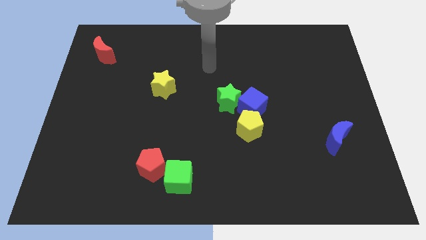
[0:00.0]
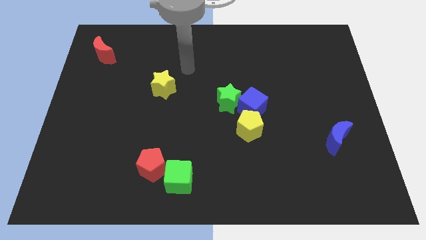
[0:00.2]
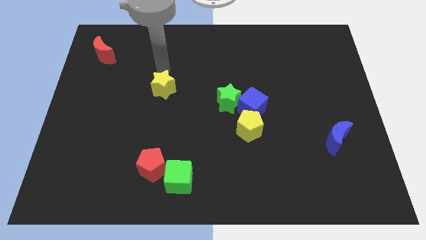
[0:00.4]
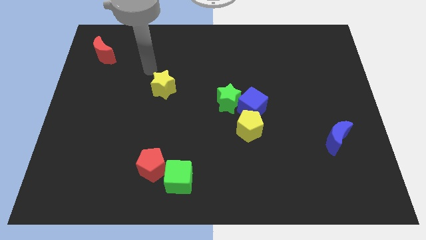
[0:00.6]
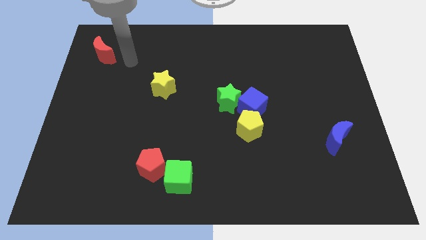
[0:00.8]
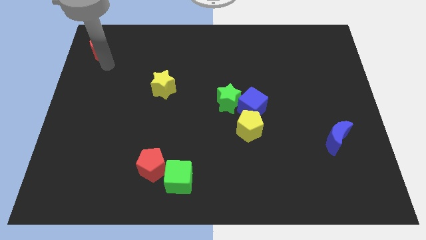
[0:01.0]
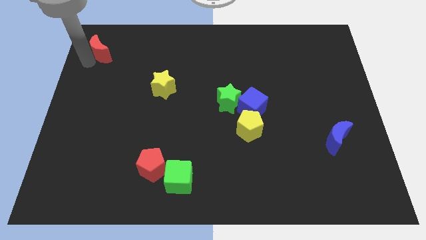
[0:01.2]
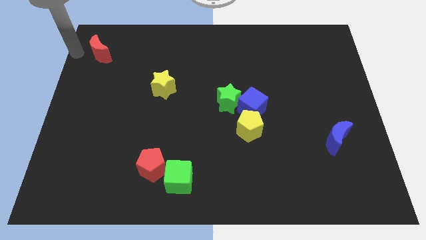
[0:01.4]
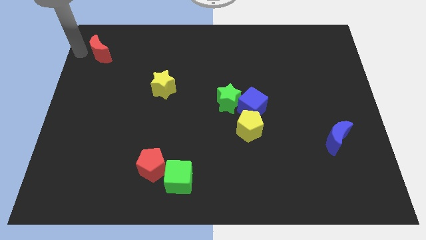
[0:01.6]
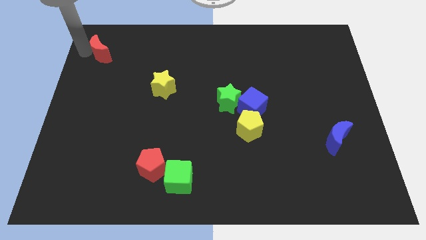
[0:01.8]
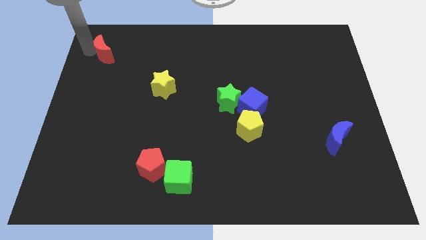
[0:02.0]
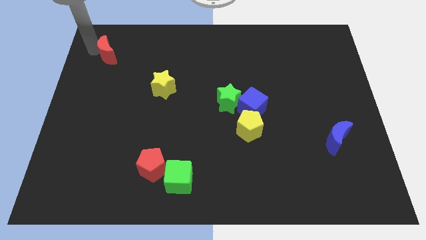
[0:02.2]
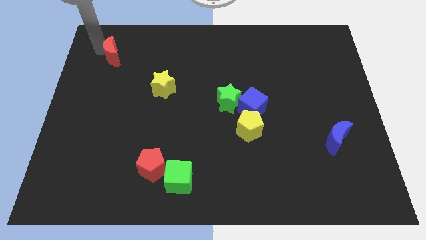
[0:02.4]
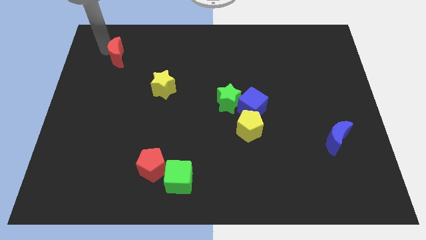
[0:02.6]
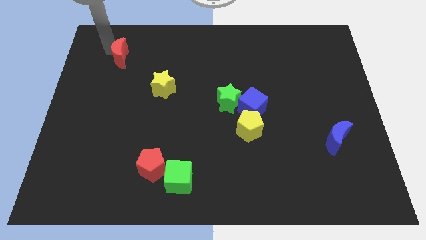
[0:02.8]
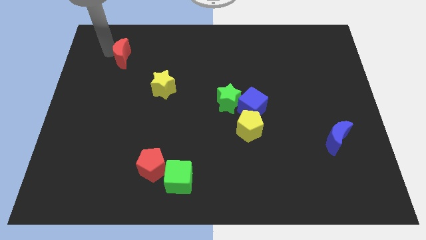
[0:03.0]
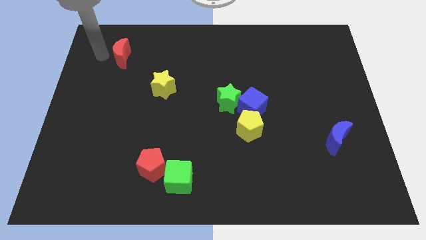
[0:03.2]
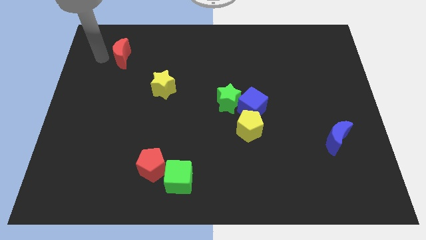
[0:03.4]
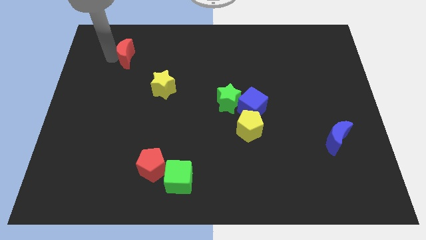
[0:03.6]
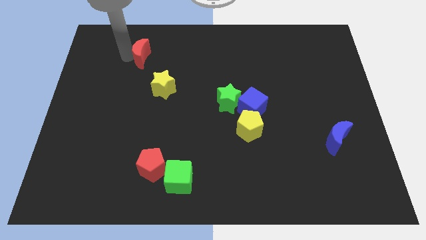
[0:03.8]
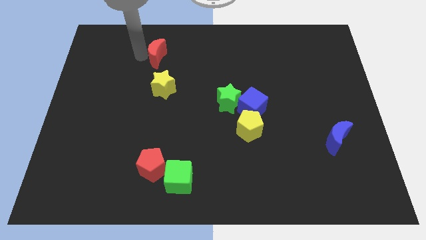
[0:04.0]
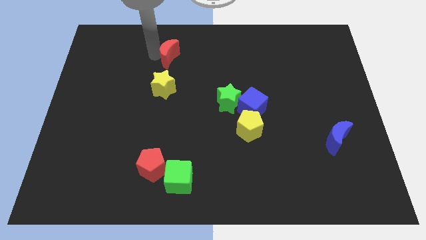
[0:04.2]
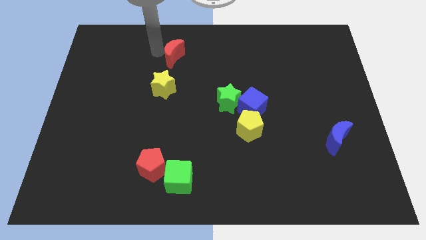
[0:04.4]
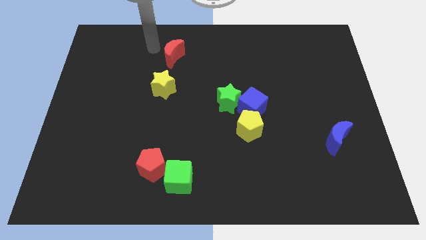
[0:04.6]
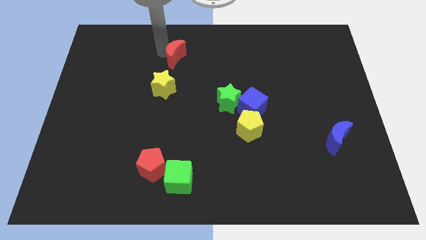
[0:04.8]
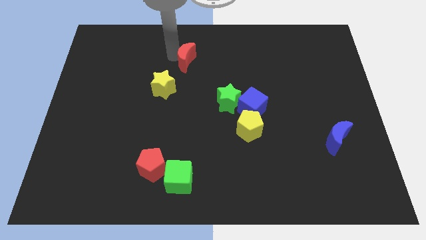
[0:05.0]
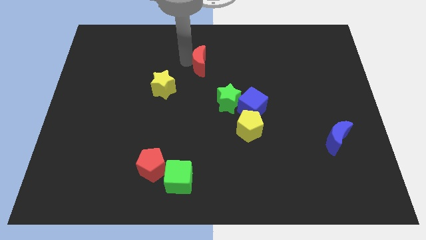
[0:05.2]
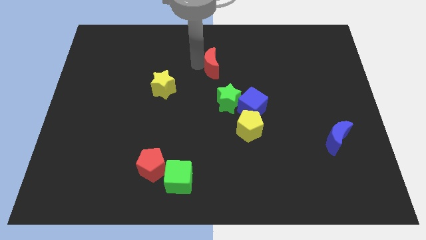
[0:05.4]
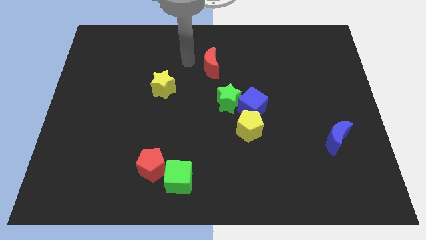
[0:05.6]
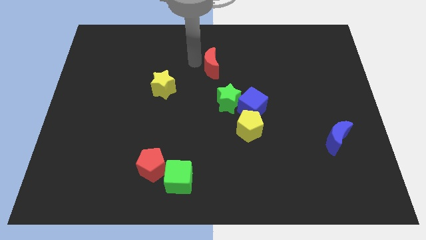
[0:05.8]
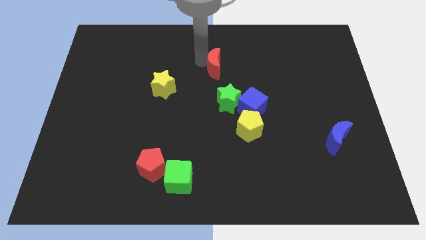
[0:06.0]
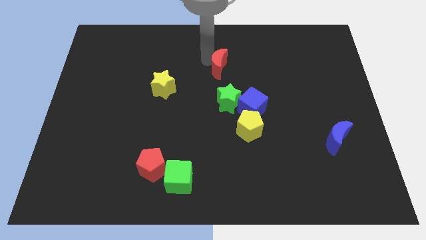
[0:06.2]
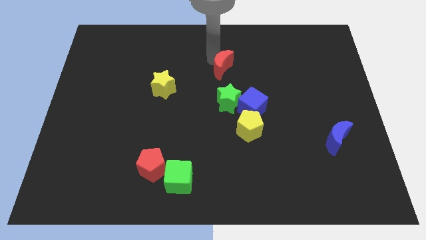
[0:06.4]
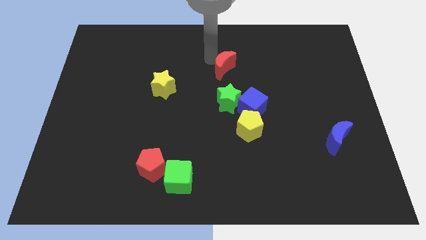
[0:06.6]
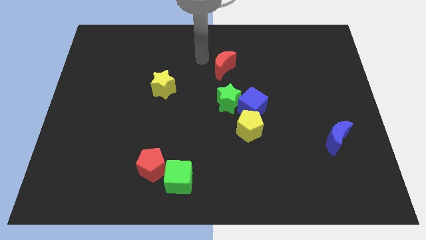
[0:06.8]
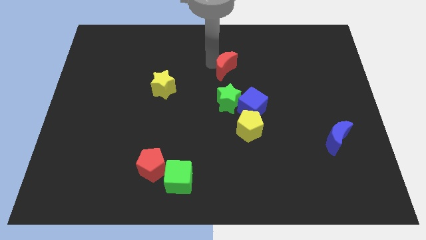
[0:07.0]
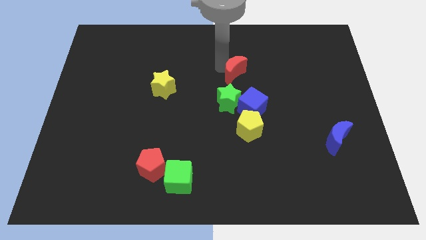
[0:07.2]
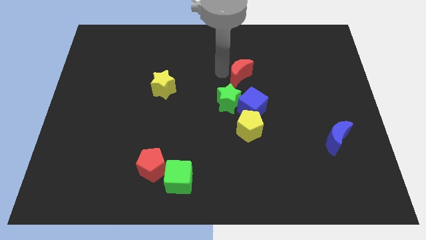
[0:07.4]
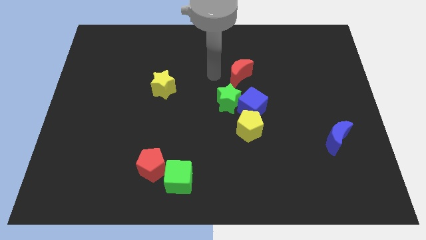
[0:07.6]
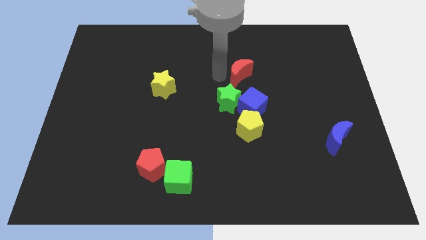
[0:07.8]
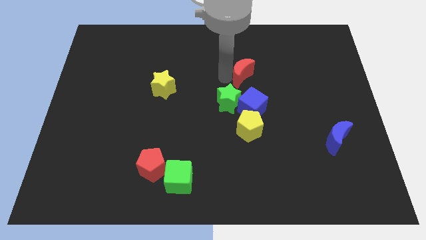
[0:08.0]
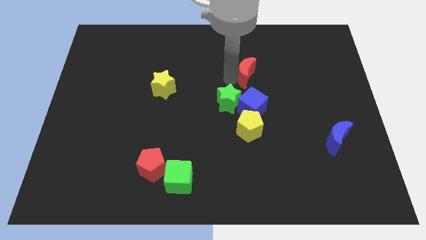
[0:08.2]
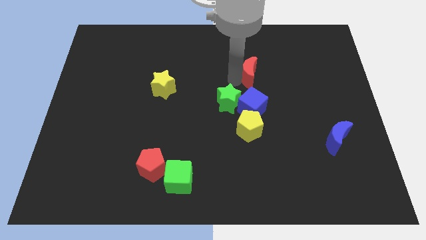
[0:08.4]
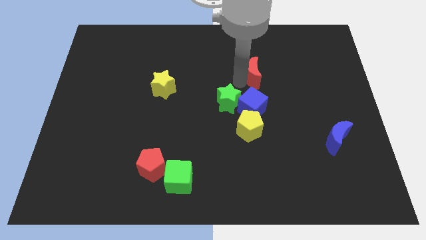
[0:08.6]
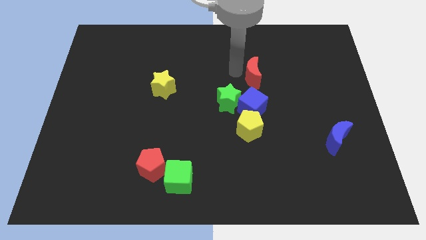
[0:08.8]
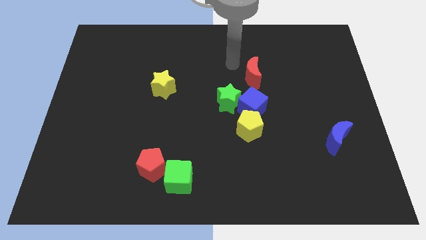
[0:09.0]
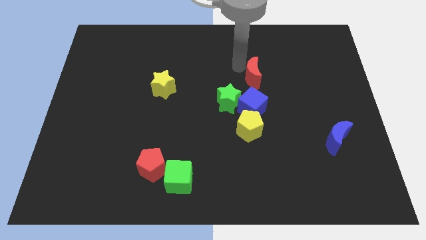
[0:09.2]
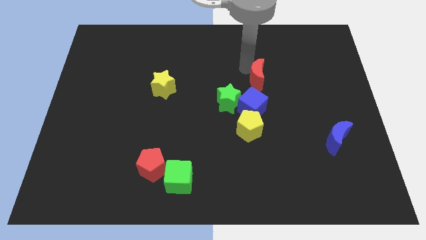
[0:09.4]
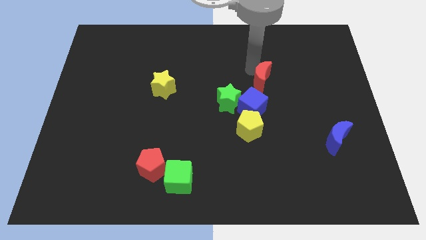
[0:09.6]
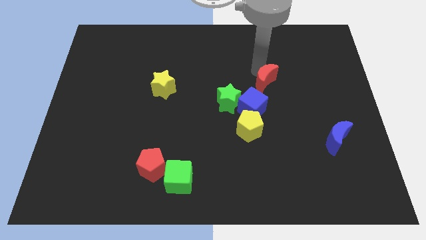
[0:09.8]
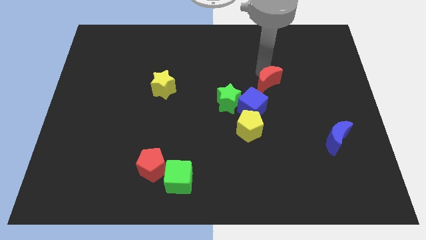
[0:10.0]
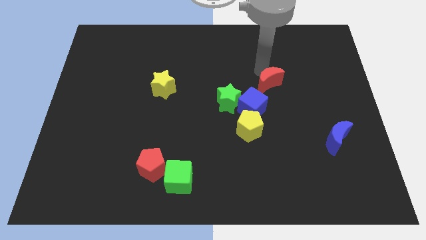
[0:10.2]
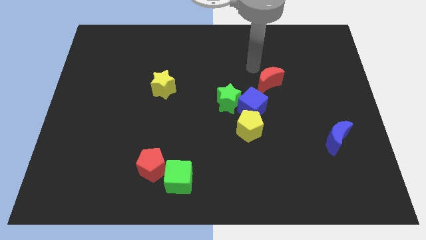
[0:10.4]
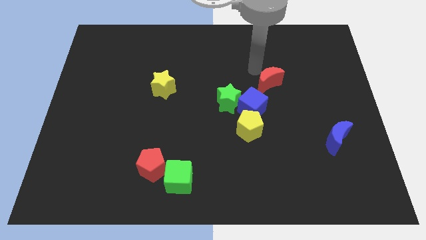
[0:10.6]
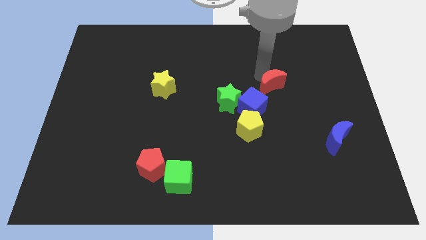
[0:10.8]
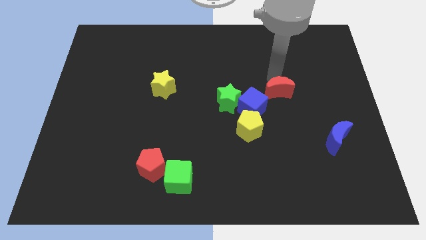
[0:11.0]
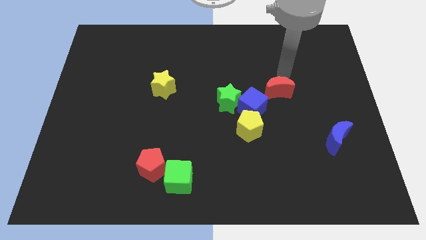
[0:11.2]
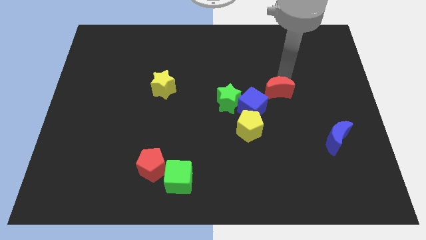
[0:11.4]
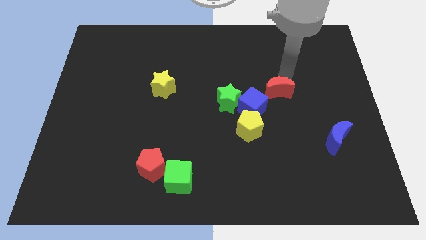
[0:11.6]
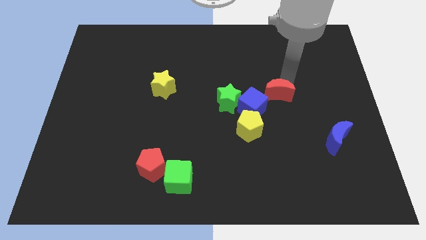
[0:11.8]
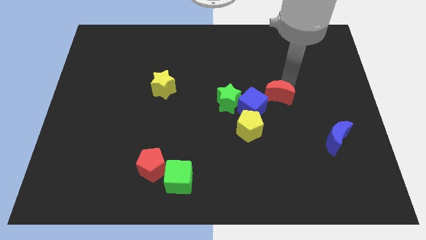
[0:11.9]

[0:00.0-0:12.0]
slide the red moon to the top right of the yellow pentagon

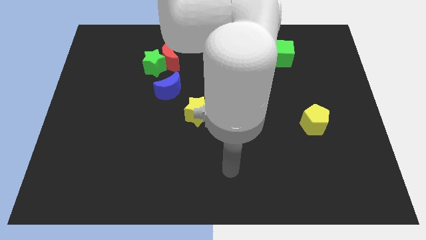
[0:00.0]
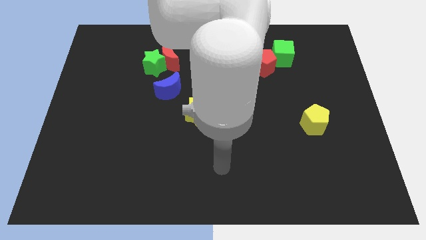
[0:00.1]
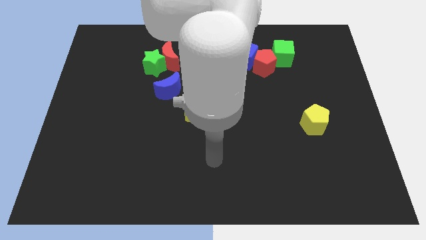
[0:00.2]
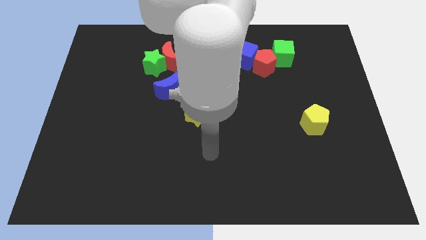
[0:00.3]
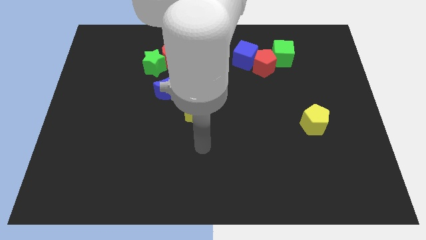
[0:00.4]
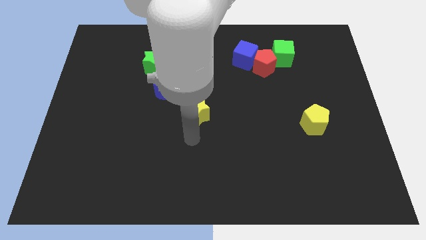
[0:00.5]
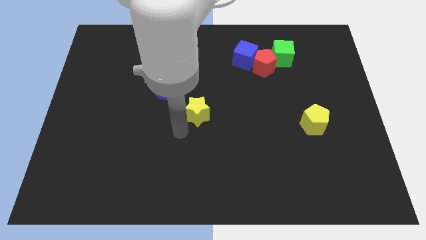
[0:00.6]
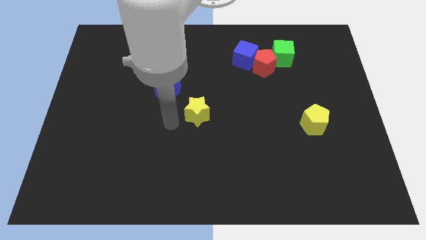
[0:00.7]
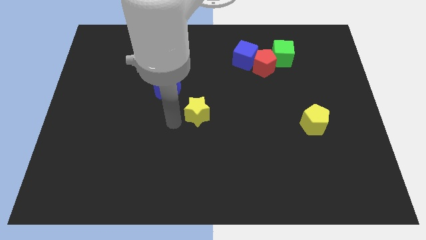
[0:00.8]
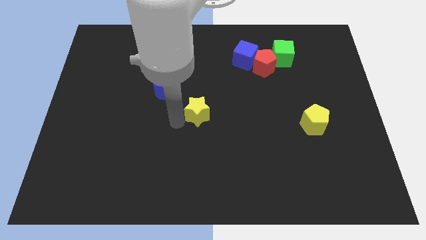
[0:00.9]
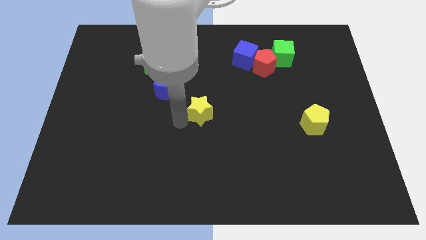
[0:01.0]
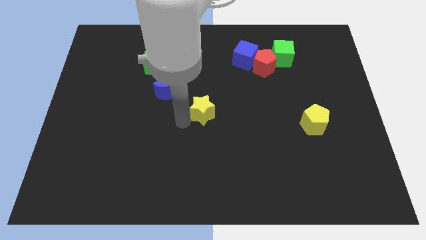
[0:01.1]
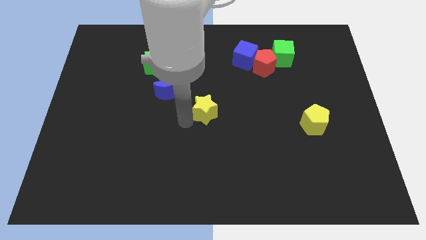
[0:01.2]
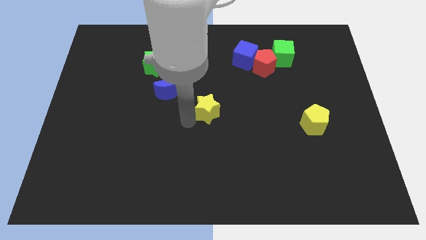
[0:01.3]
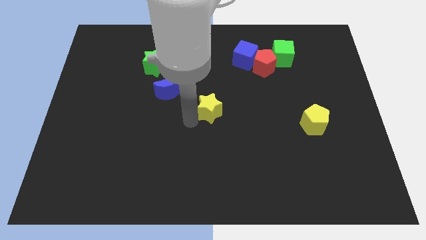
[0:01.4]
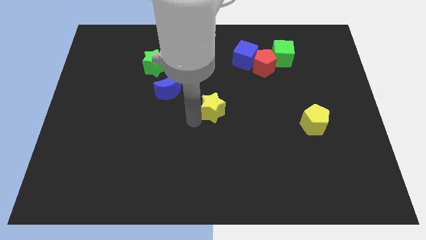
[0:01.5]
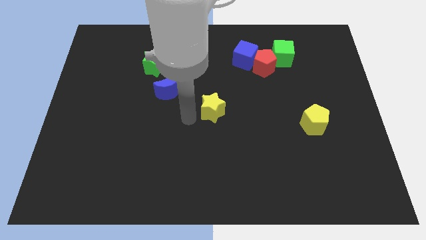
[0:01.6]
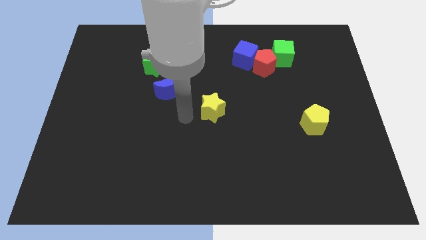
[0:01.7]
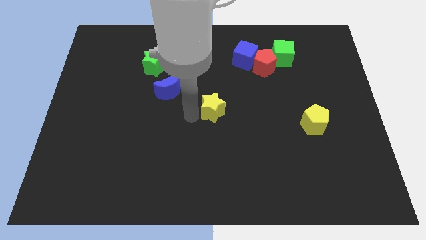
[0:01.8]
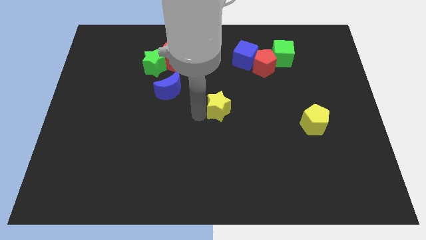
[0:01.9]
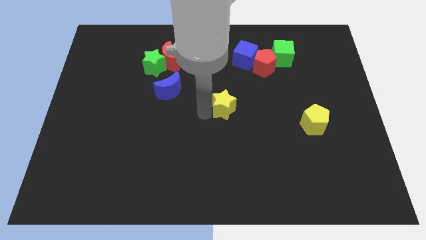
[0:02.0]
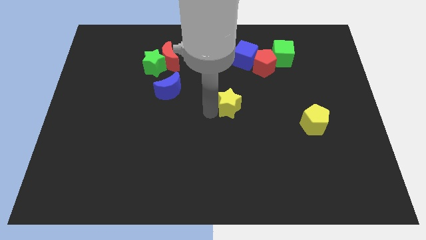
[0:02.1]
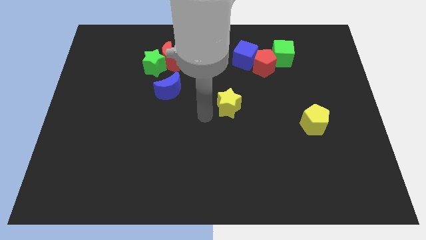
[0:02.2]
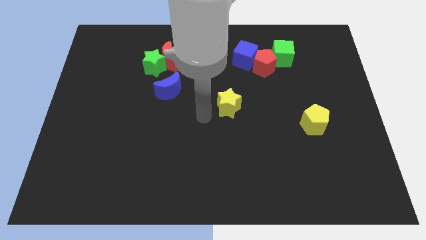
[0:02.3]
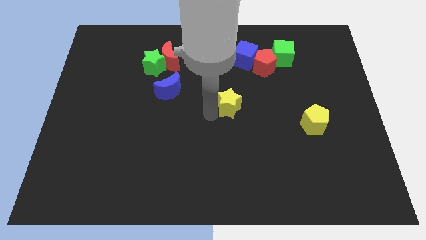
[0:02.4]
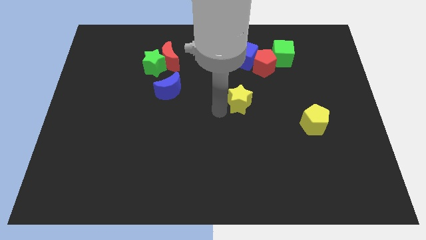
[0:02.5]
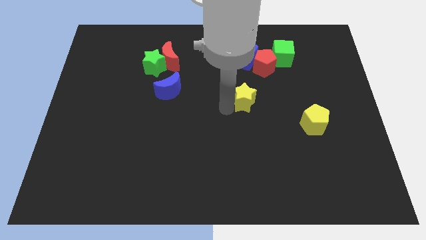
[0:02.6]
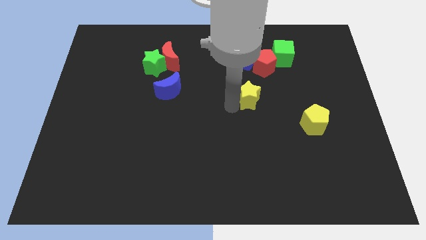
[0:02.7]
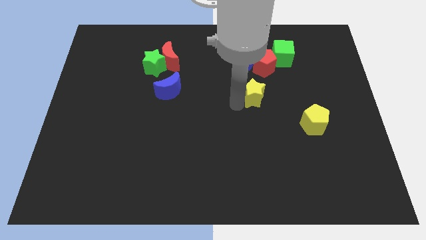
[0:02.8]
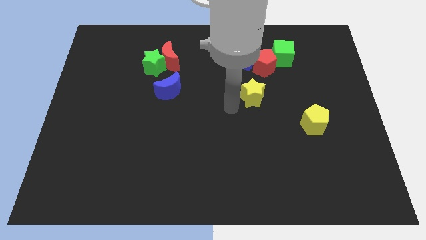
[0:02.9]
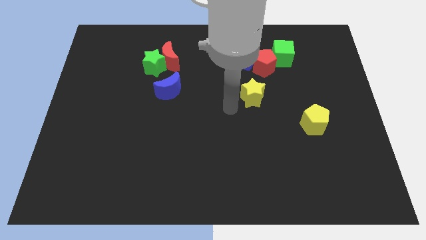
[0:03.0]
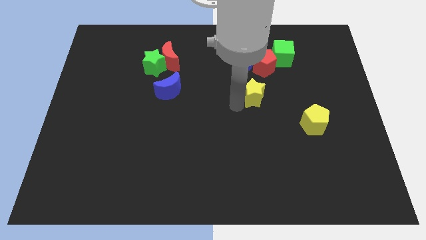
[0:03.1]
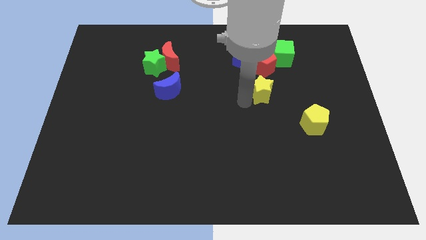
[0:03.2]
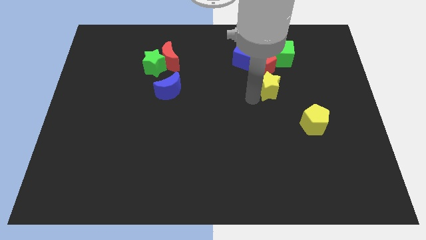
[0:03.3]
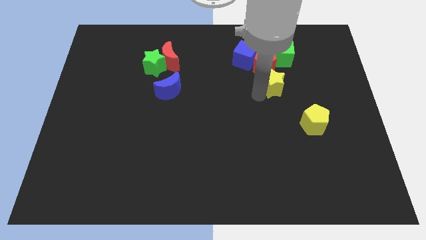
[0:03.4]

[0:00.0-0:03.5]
put the yellow star to the bottom right side of the red pentagon
